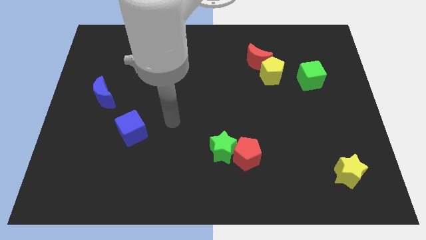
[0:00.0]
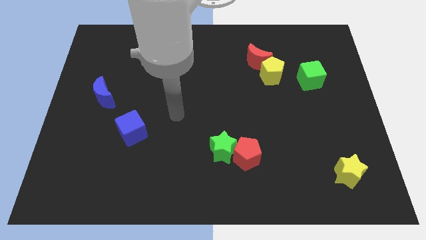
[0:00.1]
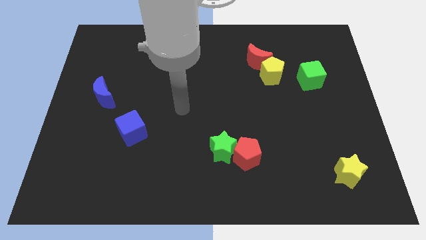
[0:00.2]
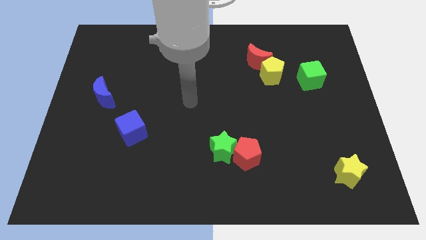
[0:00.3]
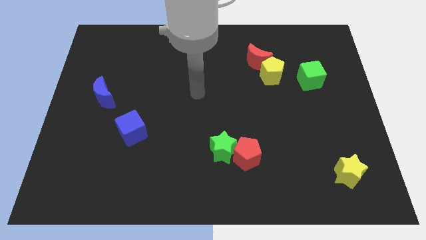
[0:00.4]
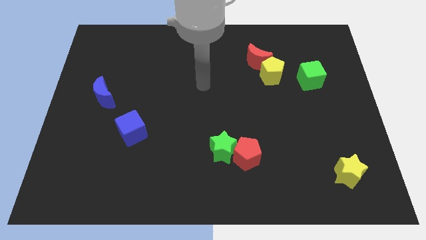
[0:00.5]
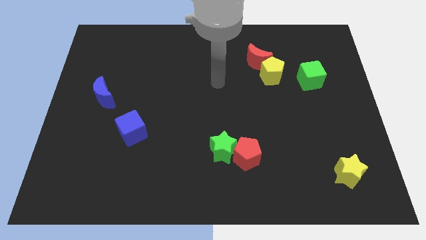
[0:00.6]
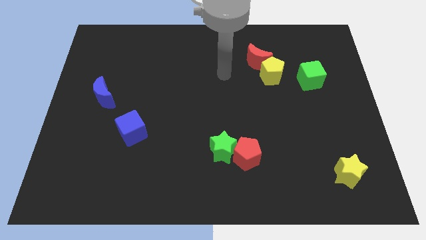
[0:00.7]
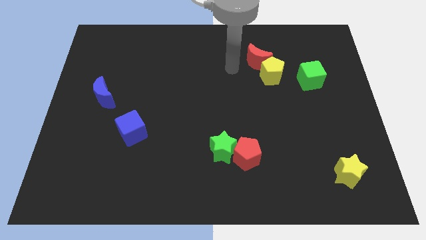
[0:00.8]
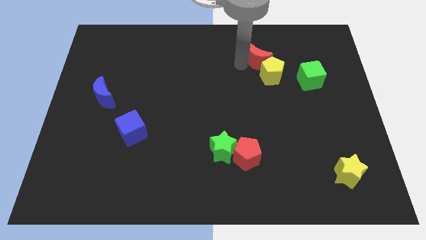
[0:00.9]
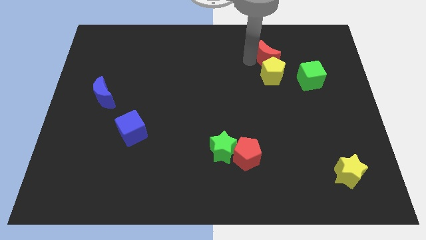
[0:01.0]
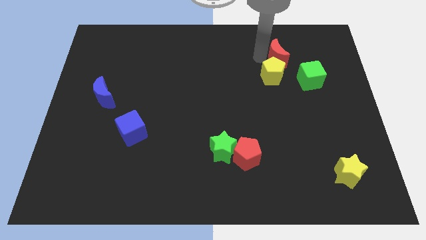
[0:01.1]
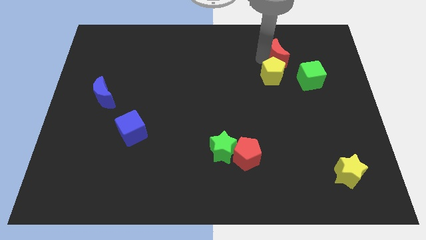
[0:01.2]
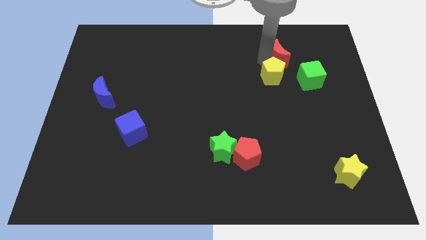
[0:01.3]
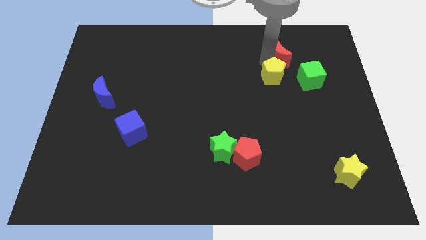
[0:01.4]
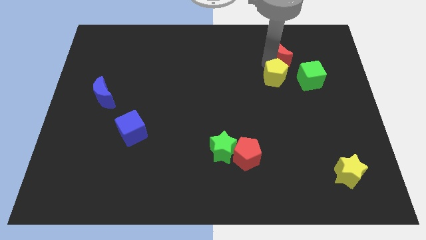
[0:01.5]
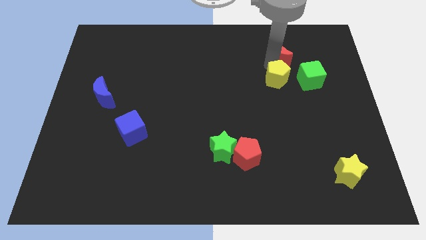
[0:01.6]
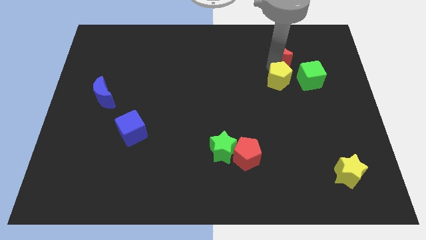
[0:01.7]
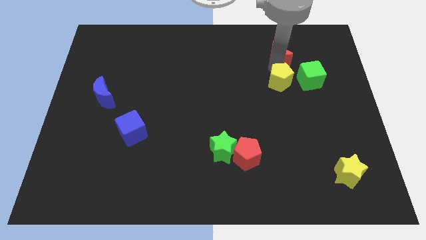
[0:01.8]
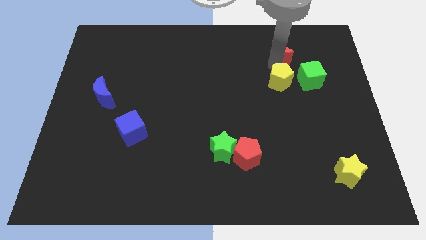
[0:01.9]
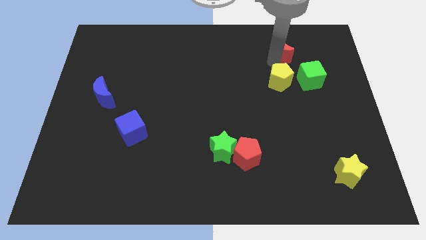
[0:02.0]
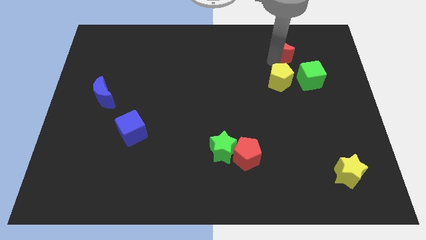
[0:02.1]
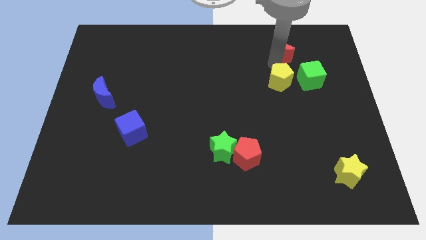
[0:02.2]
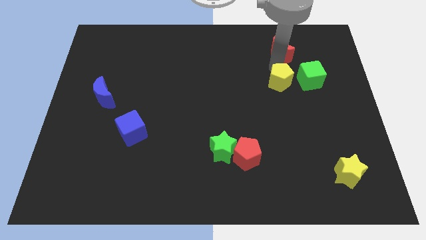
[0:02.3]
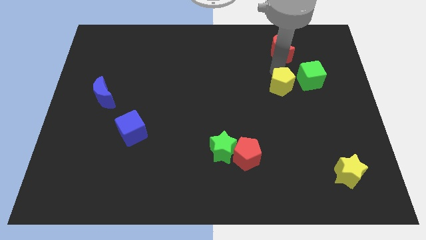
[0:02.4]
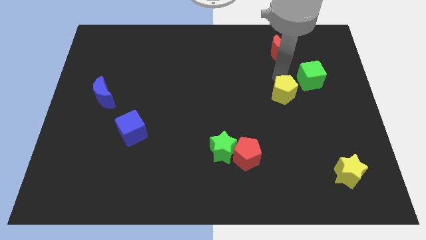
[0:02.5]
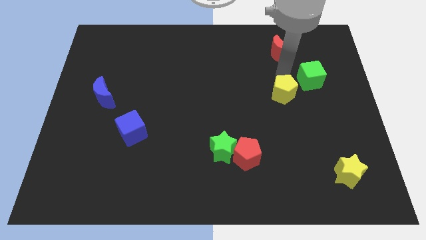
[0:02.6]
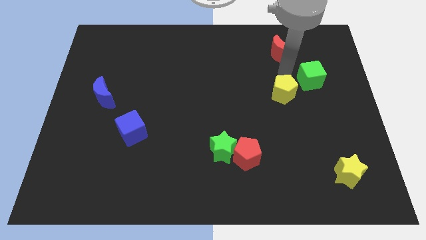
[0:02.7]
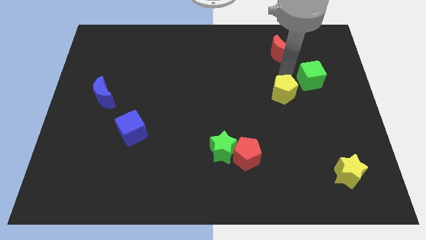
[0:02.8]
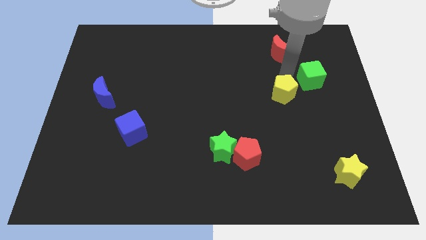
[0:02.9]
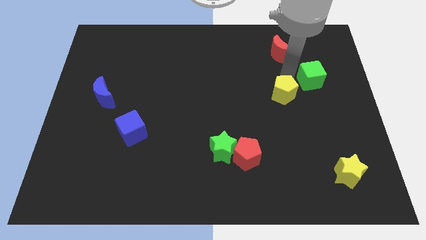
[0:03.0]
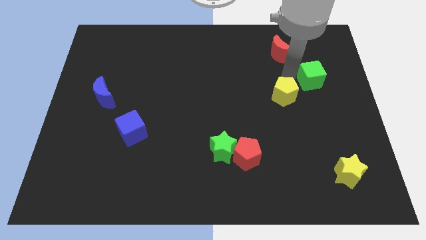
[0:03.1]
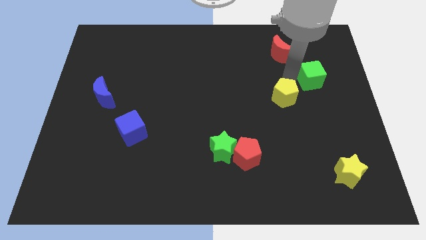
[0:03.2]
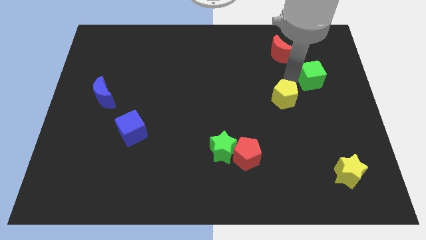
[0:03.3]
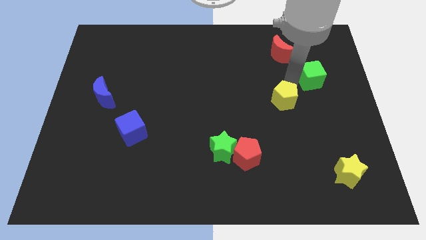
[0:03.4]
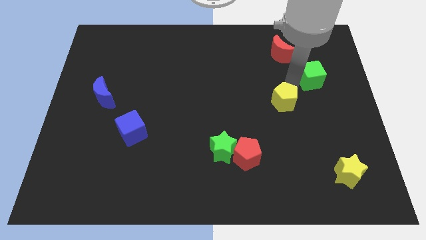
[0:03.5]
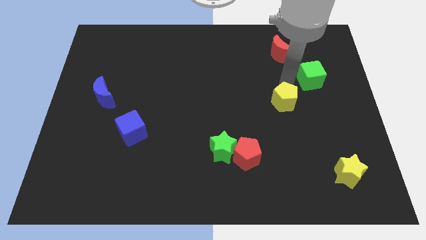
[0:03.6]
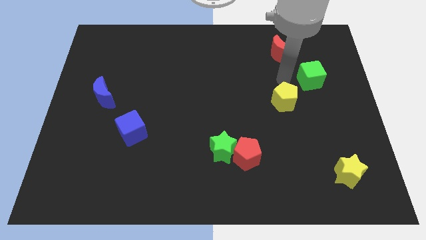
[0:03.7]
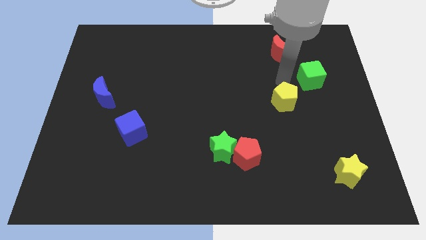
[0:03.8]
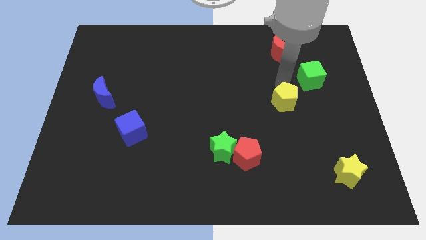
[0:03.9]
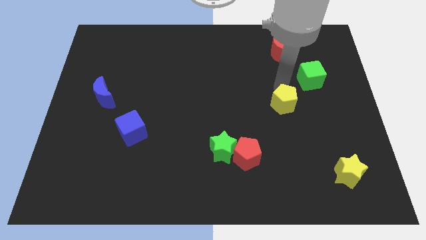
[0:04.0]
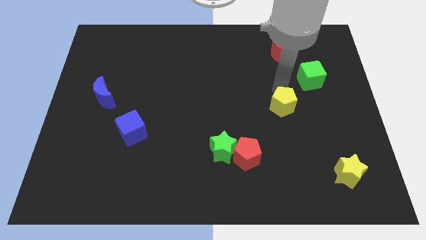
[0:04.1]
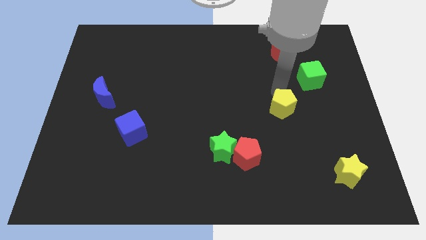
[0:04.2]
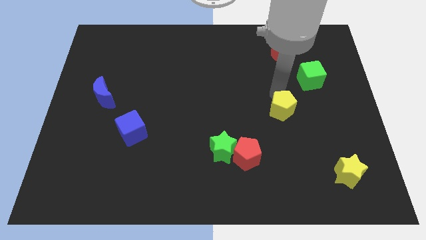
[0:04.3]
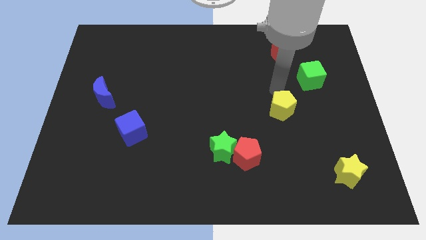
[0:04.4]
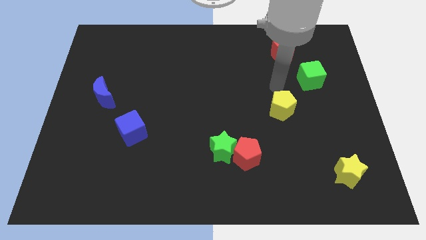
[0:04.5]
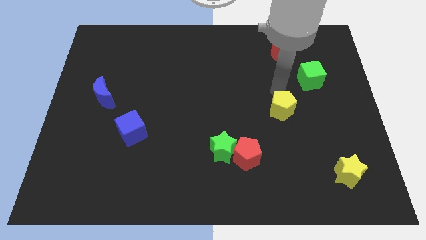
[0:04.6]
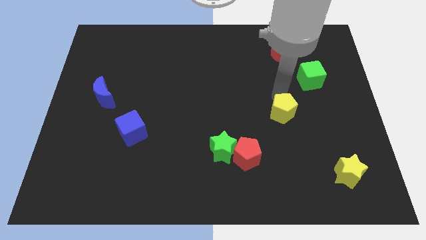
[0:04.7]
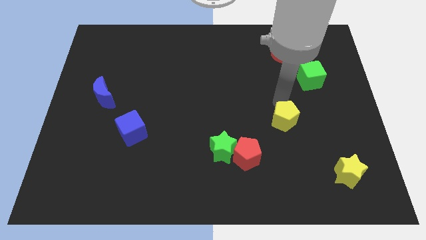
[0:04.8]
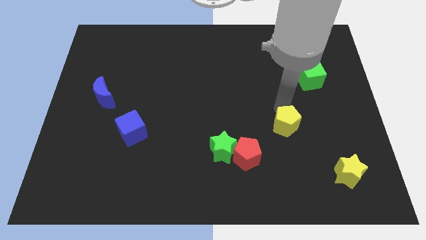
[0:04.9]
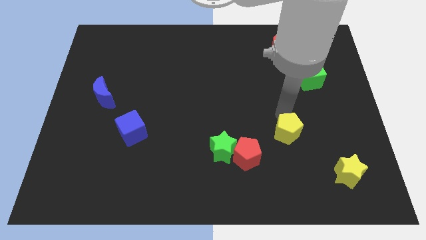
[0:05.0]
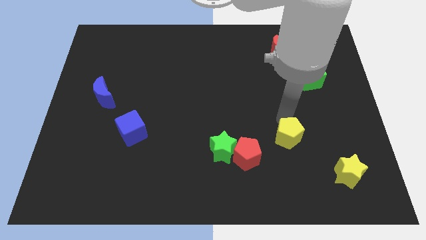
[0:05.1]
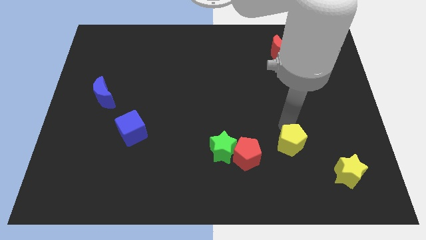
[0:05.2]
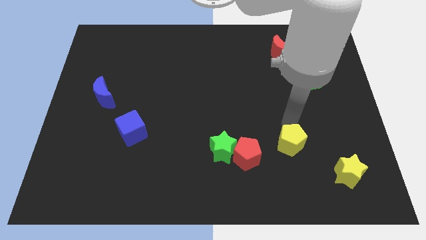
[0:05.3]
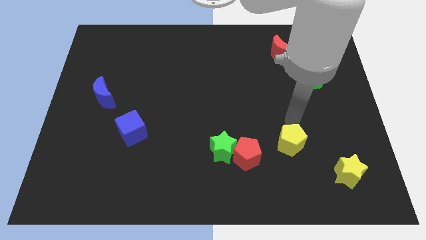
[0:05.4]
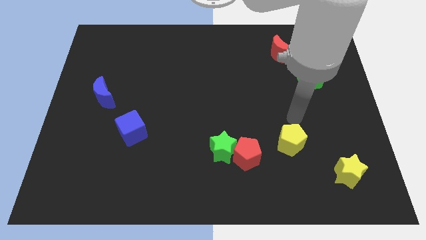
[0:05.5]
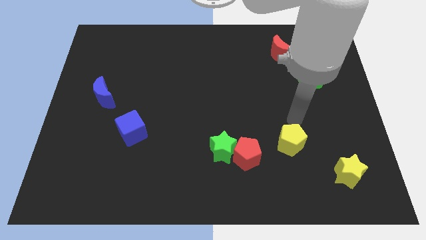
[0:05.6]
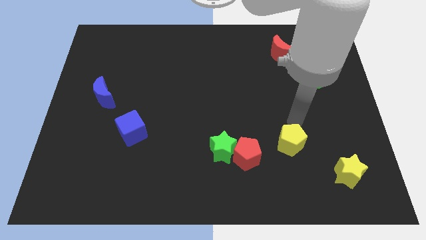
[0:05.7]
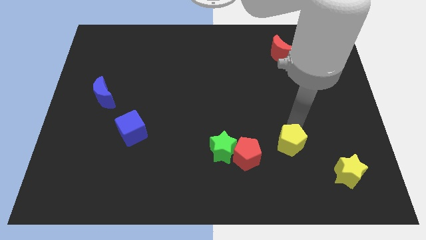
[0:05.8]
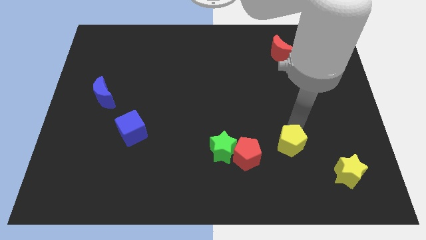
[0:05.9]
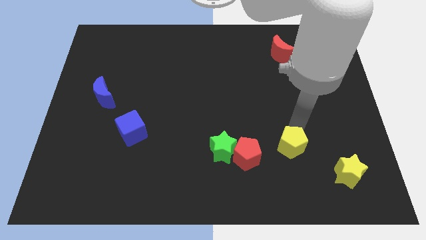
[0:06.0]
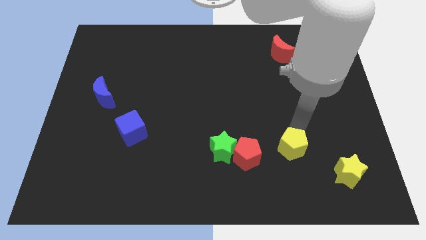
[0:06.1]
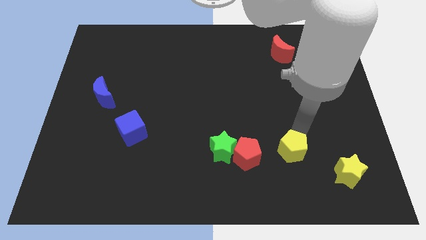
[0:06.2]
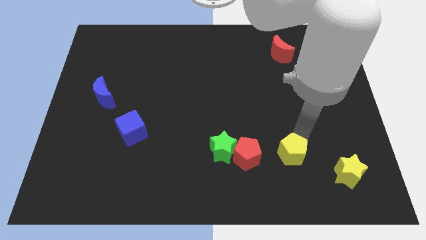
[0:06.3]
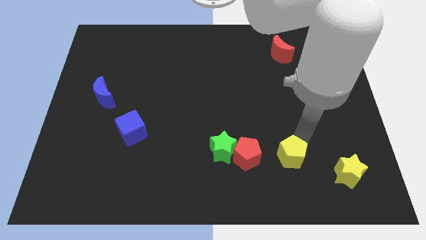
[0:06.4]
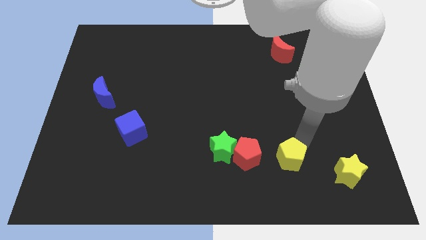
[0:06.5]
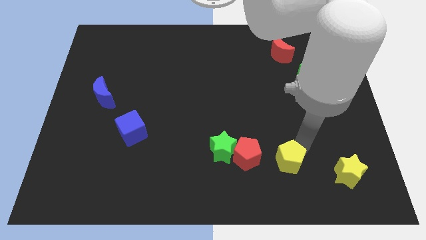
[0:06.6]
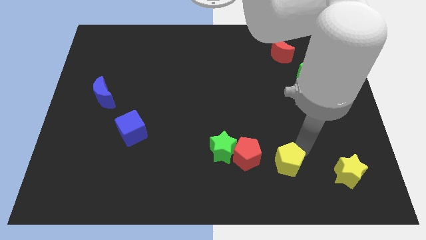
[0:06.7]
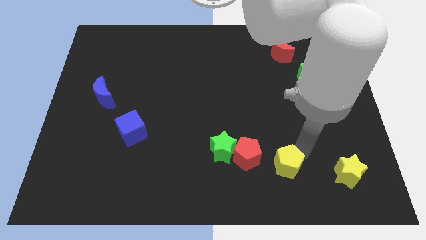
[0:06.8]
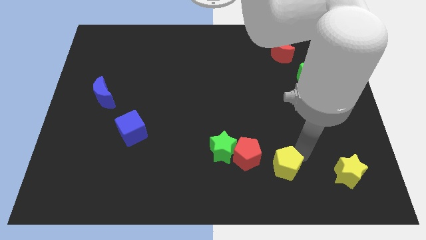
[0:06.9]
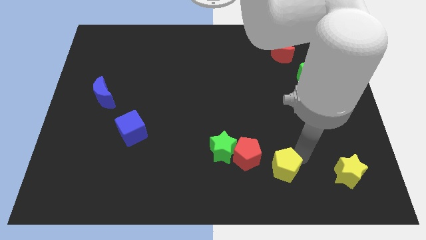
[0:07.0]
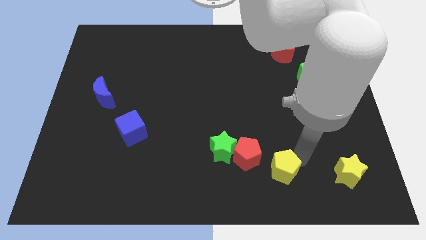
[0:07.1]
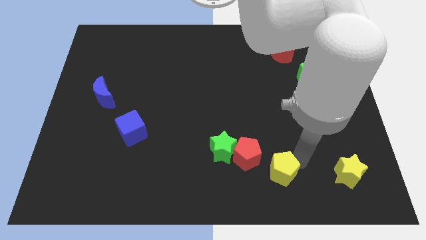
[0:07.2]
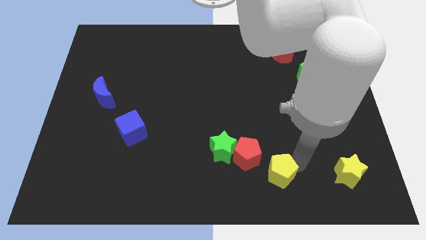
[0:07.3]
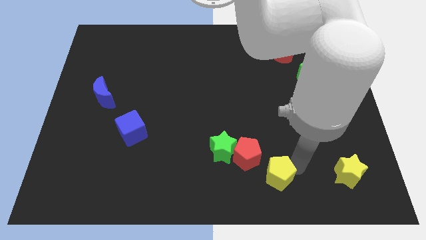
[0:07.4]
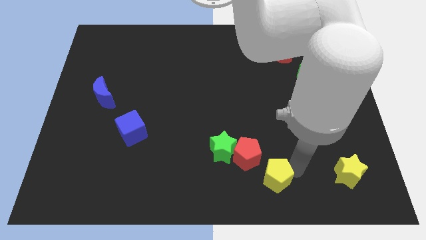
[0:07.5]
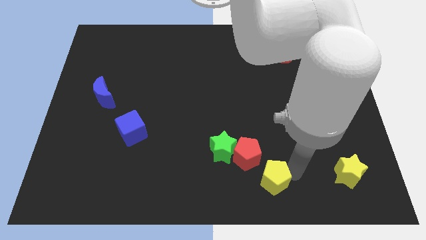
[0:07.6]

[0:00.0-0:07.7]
push the yellow pentagon to the bottom right of the green star

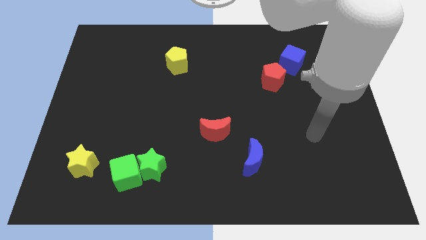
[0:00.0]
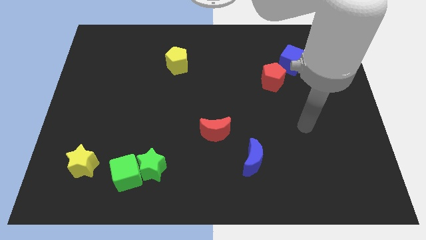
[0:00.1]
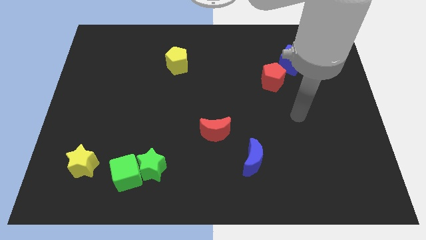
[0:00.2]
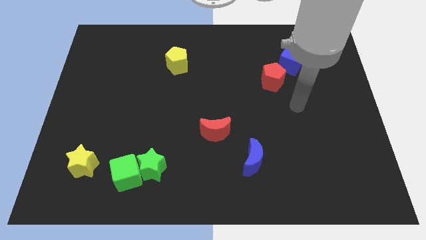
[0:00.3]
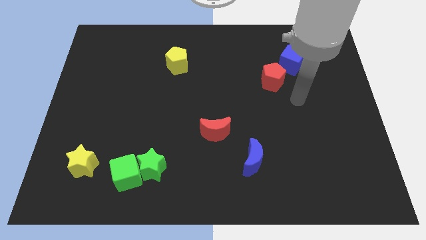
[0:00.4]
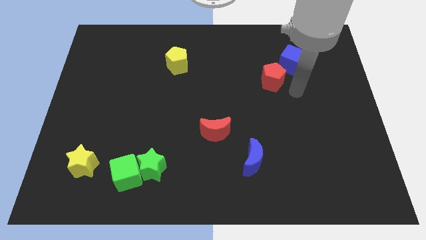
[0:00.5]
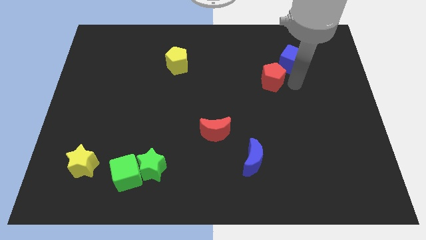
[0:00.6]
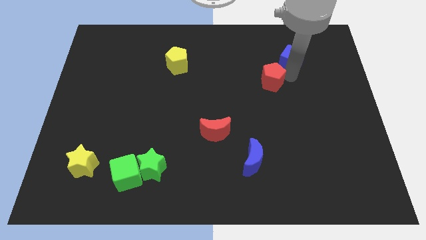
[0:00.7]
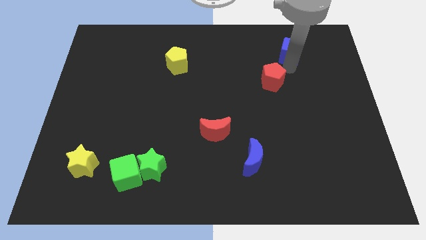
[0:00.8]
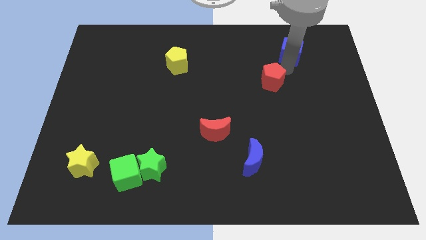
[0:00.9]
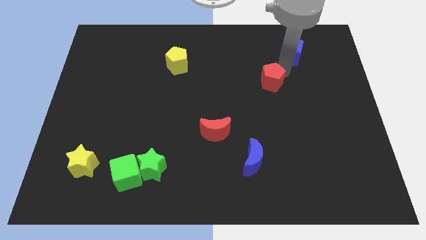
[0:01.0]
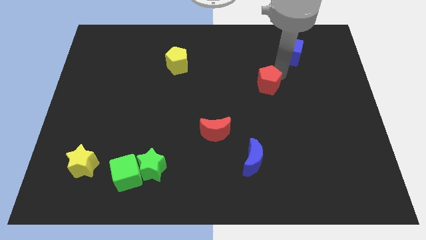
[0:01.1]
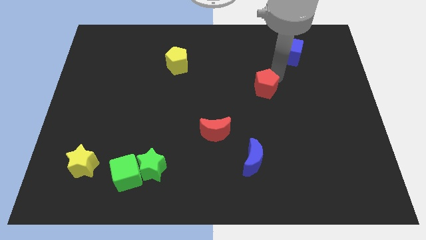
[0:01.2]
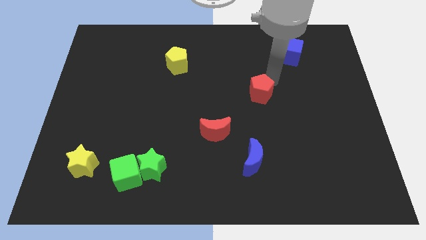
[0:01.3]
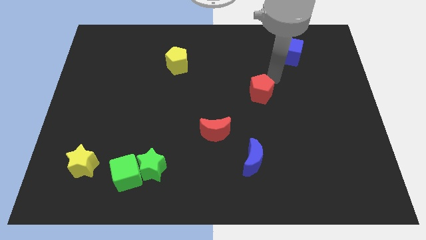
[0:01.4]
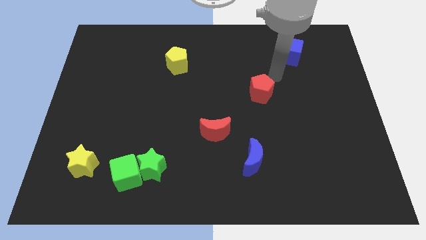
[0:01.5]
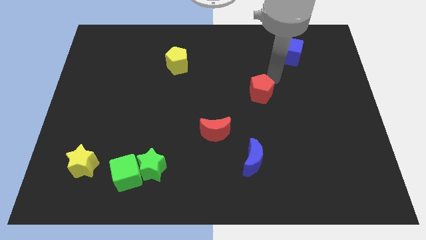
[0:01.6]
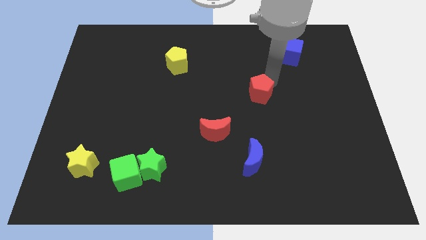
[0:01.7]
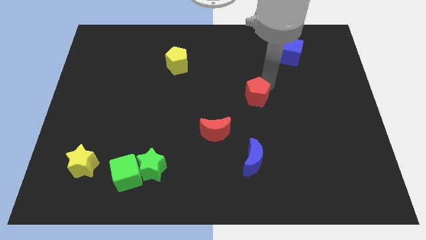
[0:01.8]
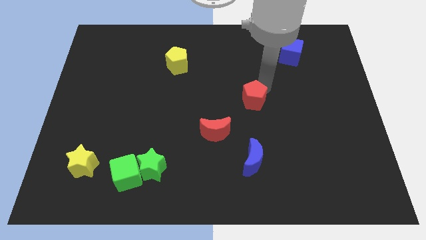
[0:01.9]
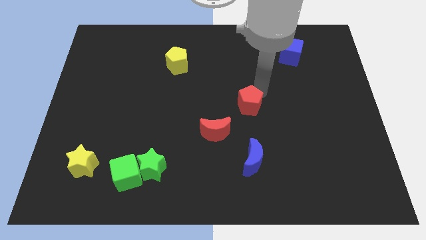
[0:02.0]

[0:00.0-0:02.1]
slide the red pentagon diagonally up and to the right of the red moon
